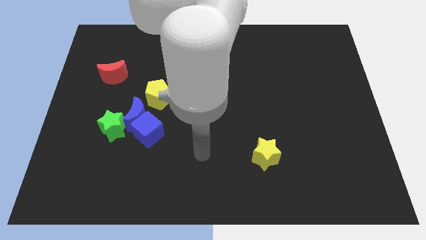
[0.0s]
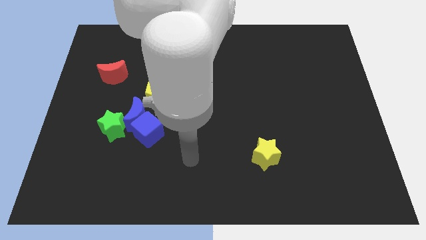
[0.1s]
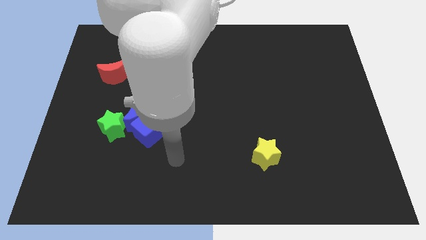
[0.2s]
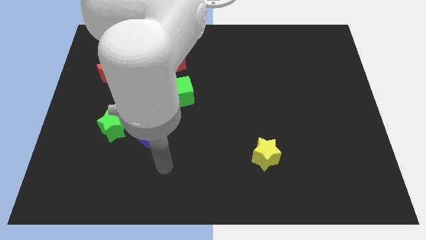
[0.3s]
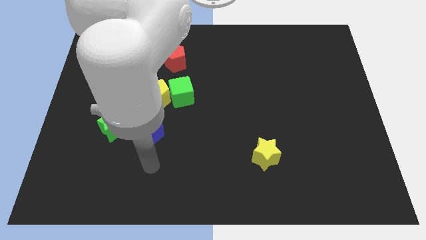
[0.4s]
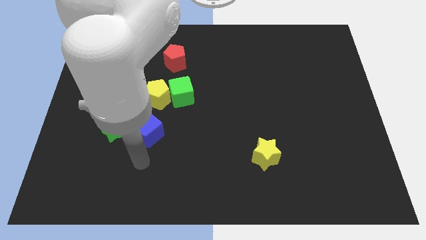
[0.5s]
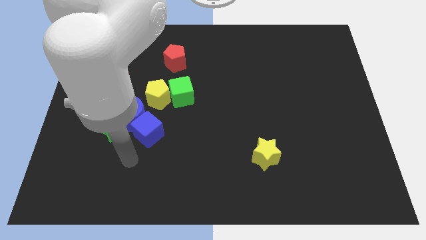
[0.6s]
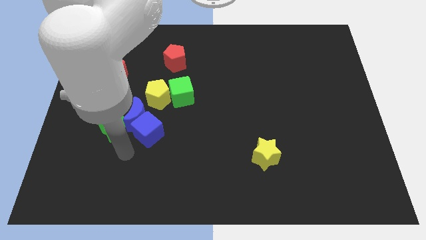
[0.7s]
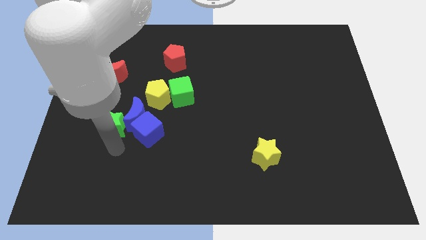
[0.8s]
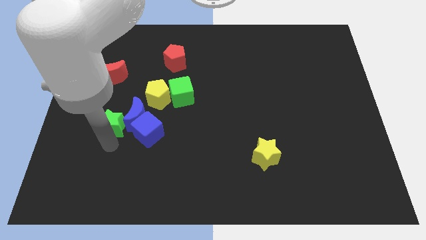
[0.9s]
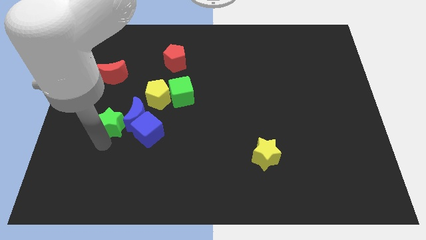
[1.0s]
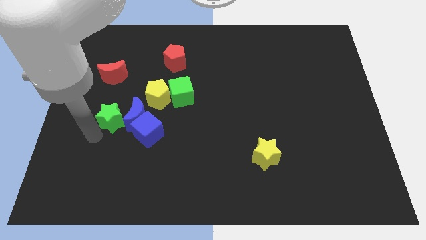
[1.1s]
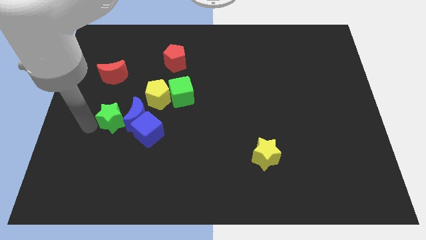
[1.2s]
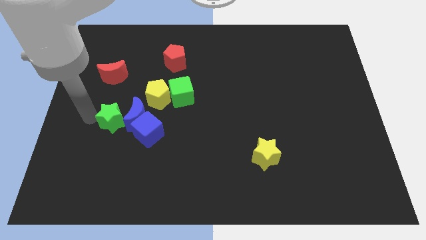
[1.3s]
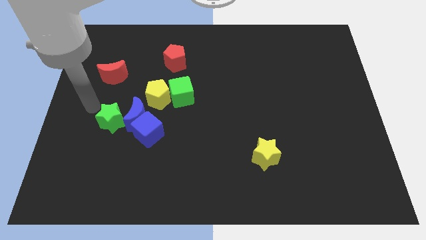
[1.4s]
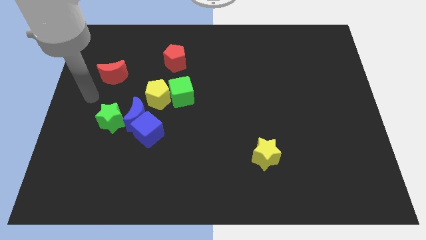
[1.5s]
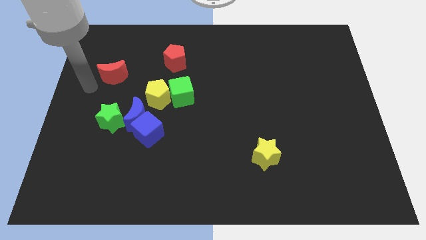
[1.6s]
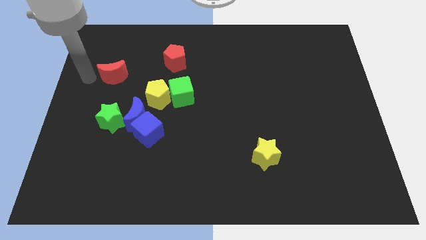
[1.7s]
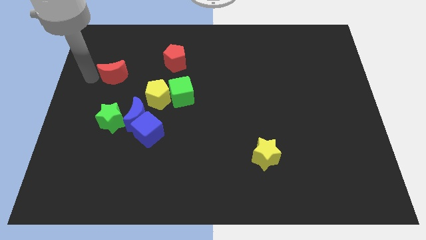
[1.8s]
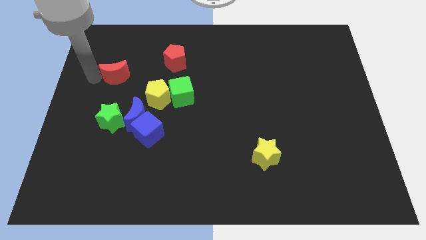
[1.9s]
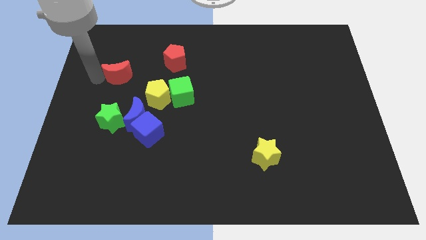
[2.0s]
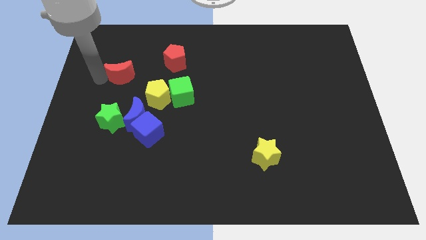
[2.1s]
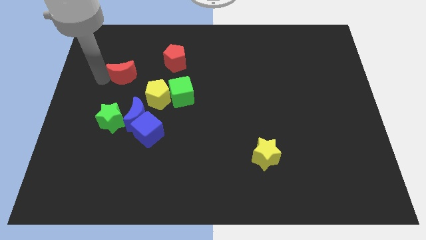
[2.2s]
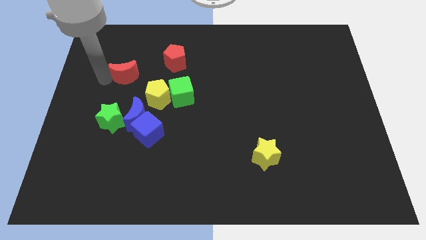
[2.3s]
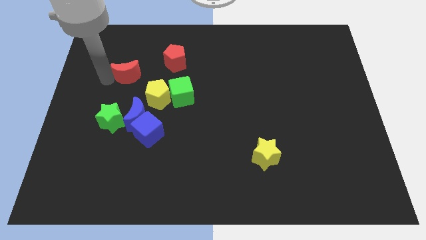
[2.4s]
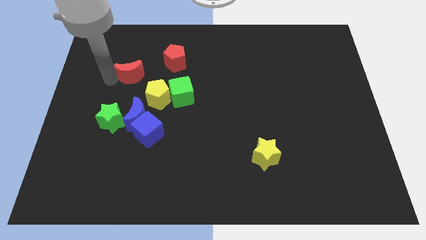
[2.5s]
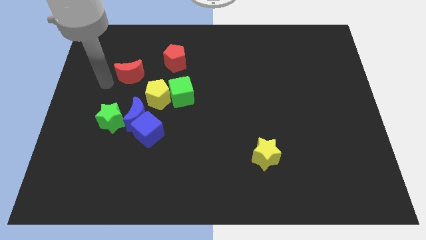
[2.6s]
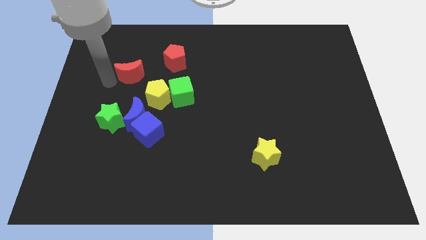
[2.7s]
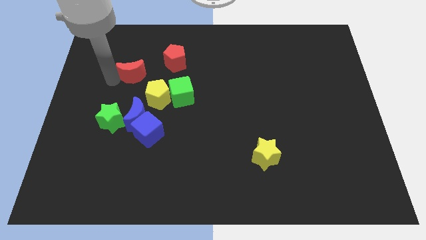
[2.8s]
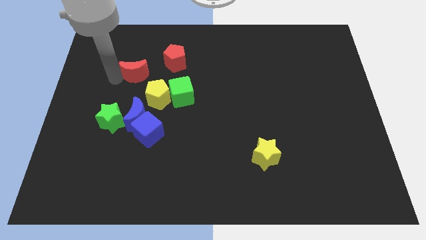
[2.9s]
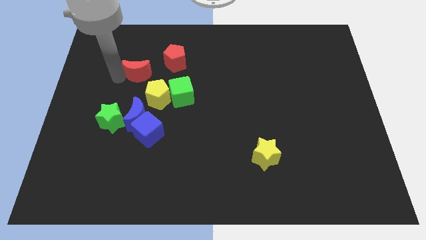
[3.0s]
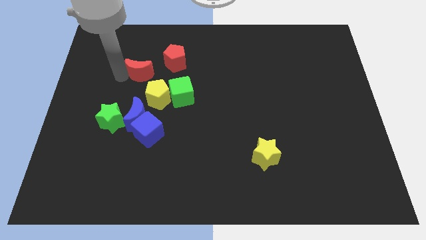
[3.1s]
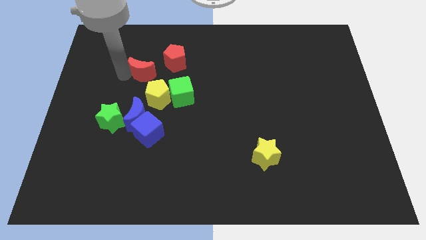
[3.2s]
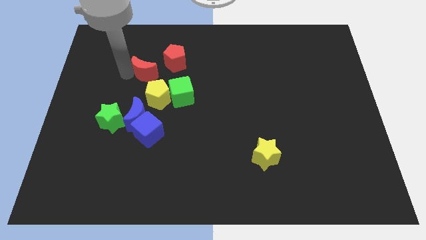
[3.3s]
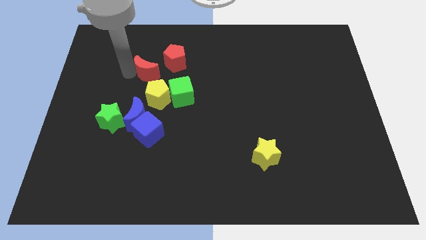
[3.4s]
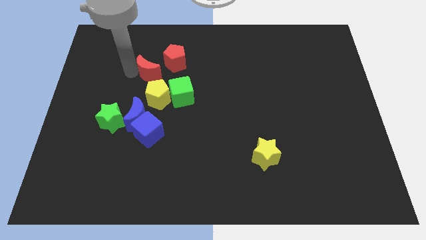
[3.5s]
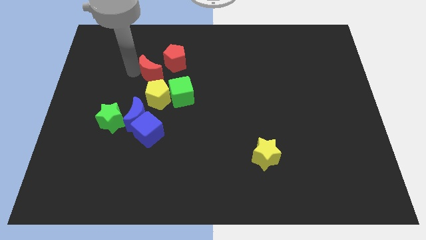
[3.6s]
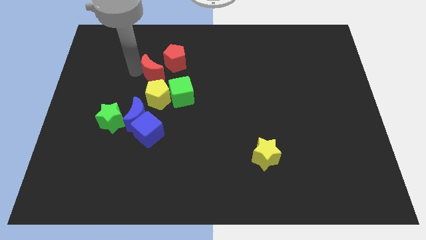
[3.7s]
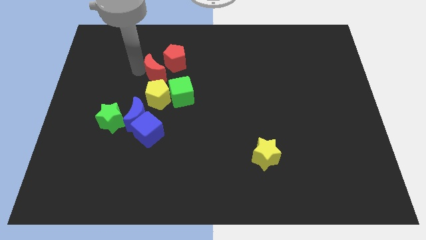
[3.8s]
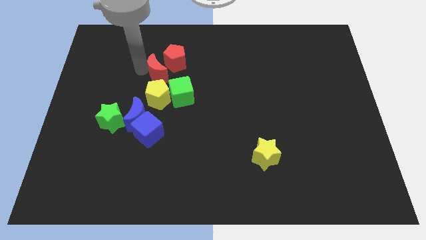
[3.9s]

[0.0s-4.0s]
push the red moon to the red pentagon

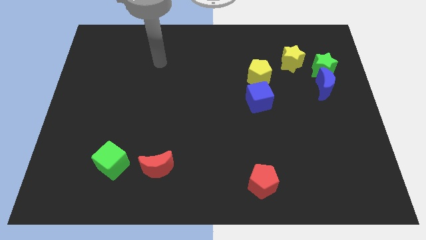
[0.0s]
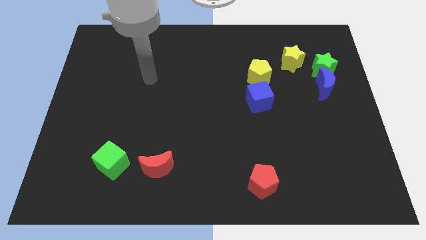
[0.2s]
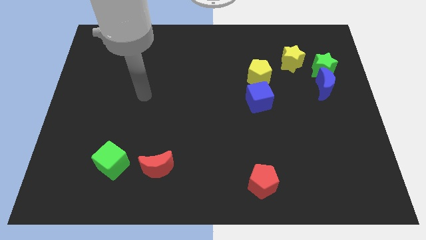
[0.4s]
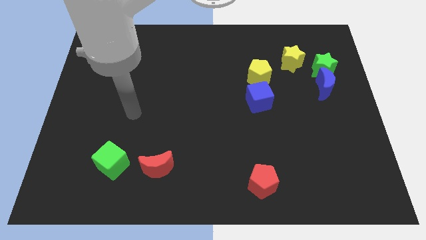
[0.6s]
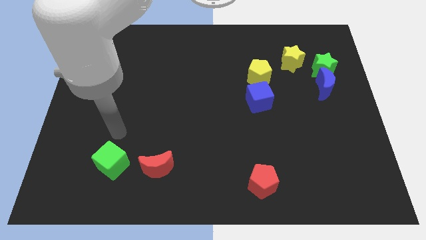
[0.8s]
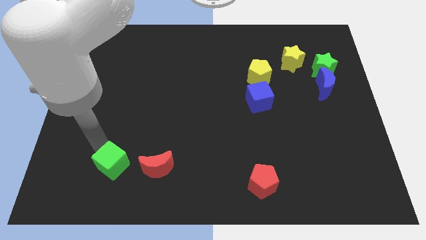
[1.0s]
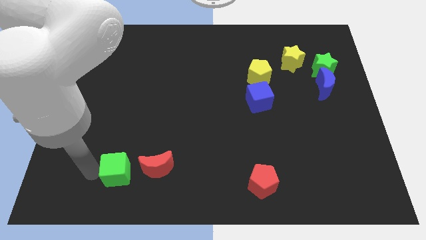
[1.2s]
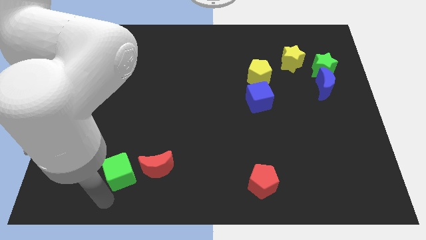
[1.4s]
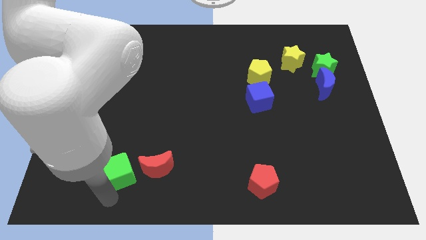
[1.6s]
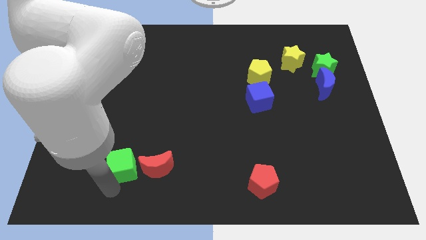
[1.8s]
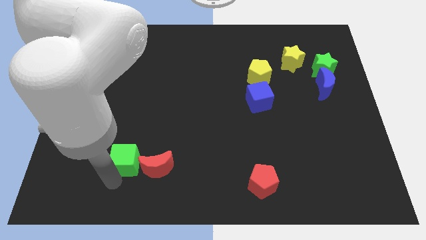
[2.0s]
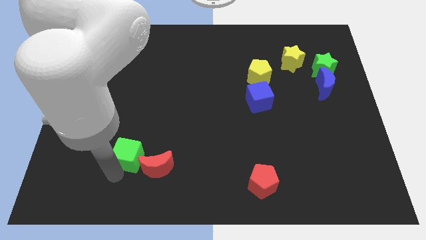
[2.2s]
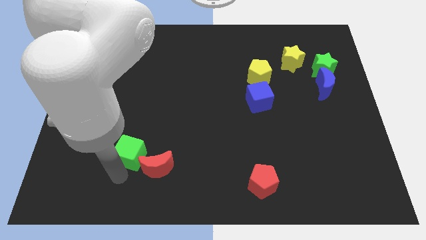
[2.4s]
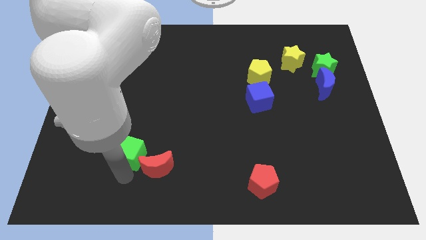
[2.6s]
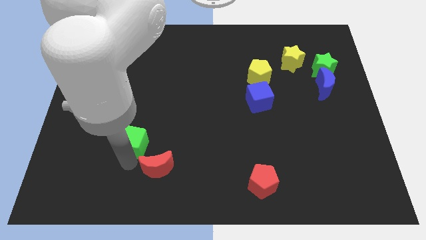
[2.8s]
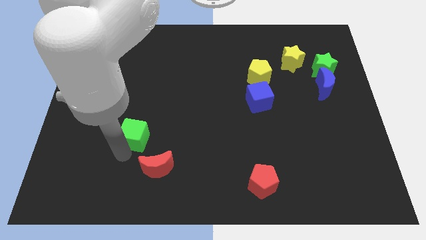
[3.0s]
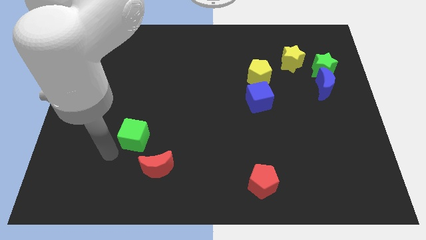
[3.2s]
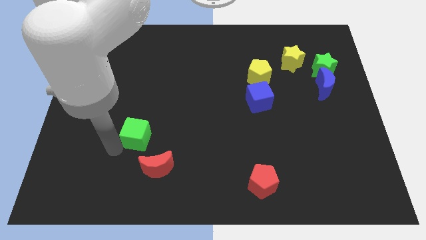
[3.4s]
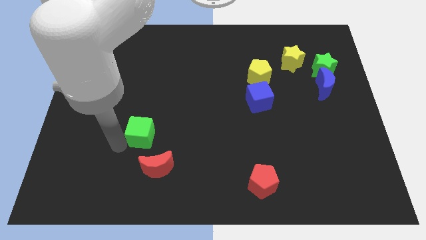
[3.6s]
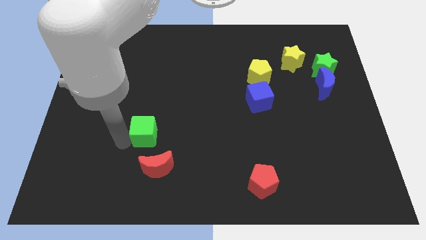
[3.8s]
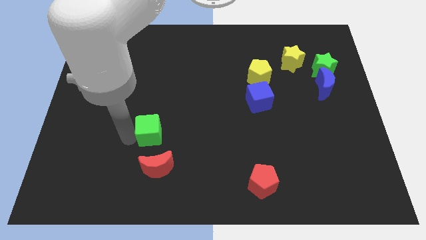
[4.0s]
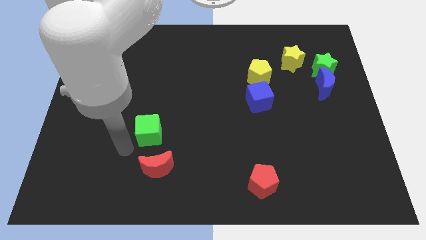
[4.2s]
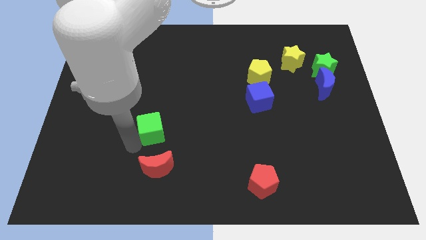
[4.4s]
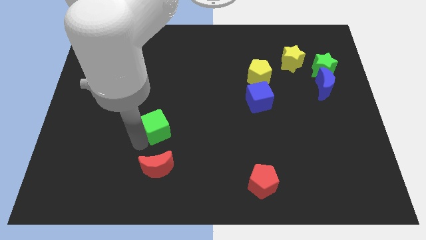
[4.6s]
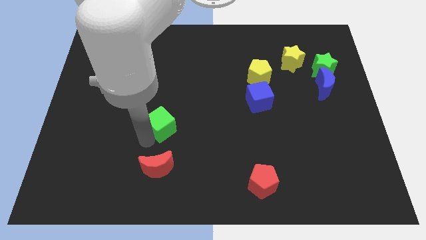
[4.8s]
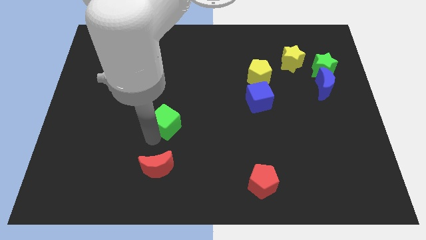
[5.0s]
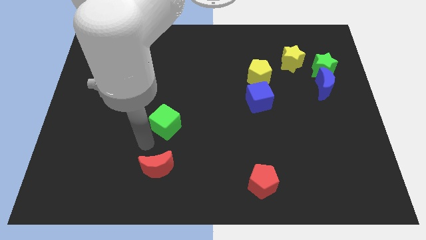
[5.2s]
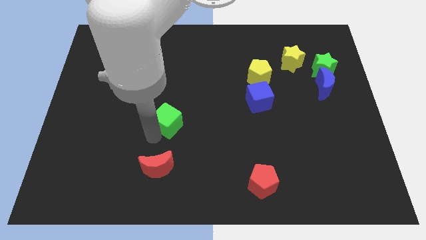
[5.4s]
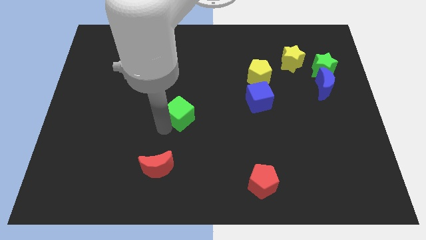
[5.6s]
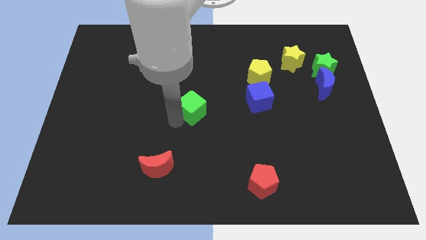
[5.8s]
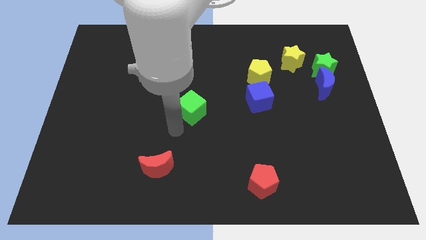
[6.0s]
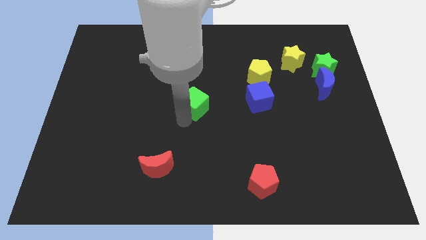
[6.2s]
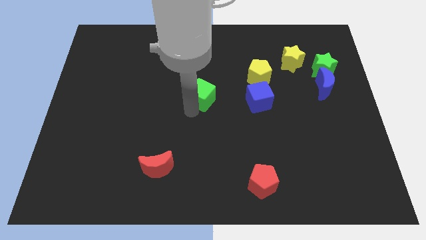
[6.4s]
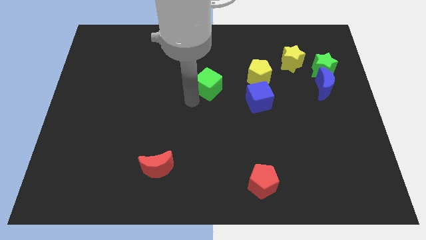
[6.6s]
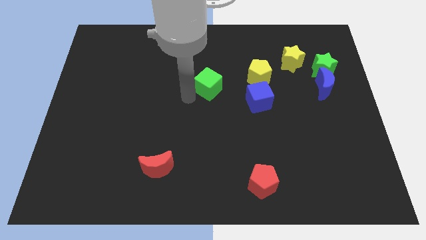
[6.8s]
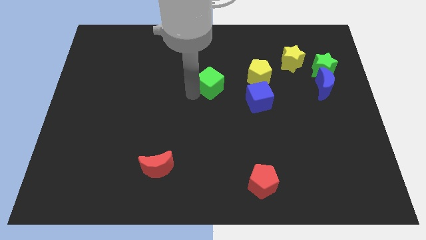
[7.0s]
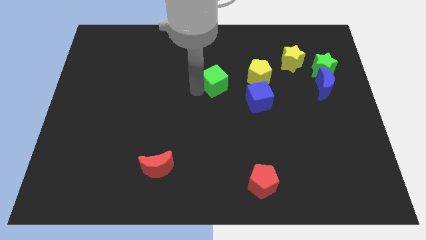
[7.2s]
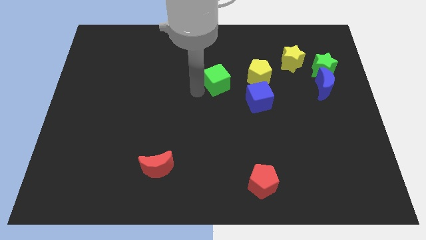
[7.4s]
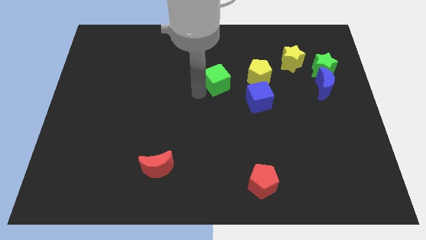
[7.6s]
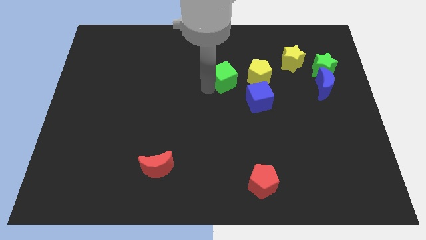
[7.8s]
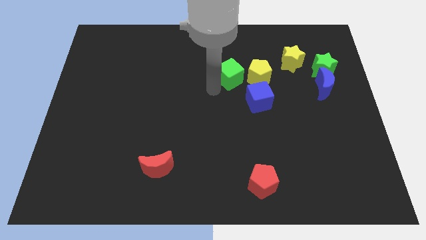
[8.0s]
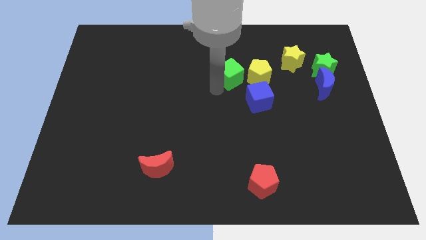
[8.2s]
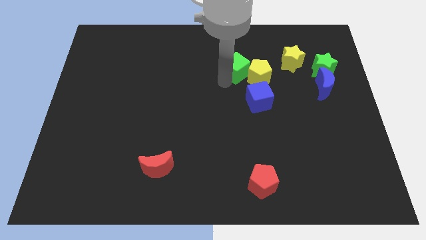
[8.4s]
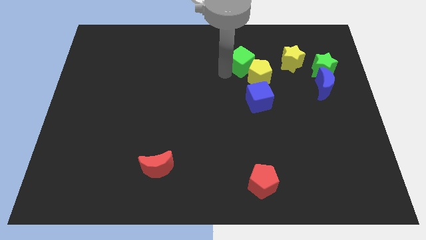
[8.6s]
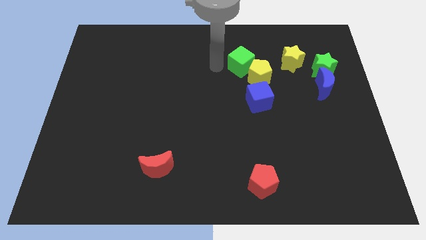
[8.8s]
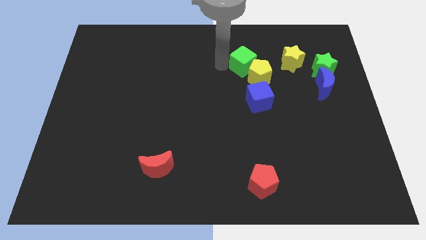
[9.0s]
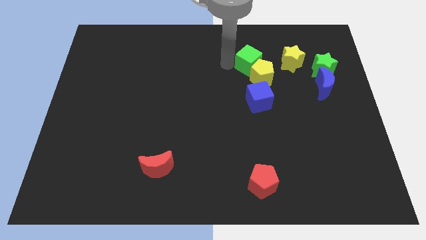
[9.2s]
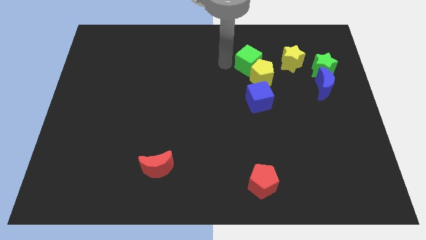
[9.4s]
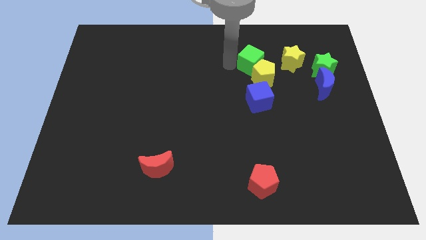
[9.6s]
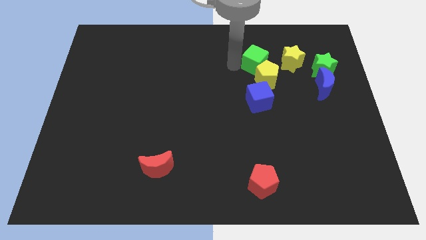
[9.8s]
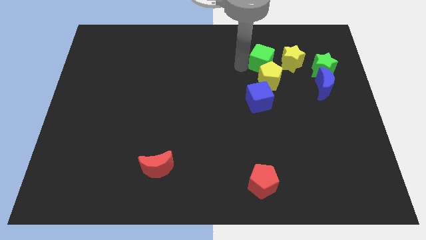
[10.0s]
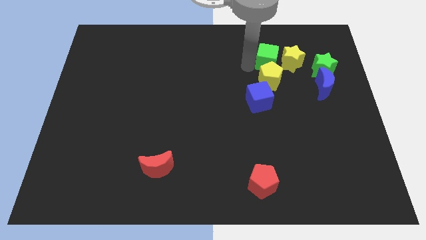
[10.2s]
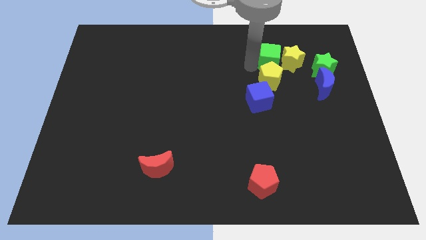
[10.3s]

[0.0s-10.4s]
push the green cube towards the yellow star
